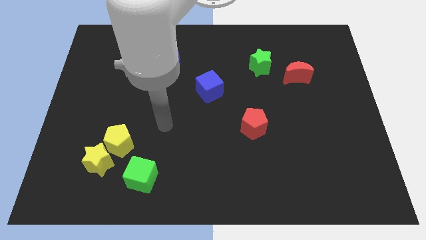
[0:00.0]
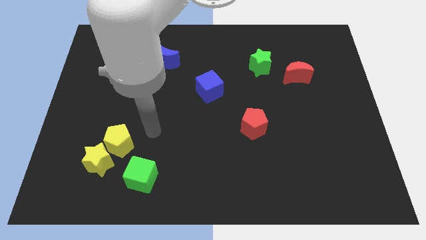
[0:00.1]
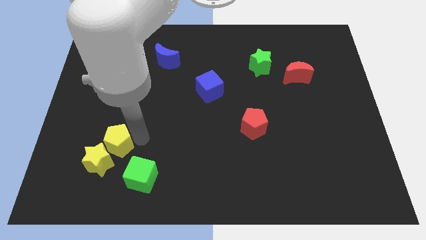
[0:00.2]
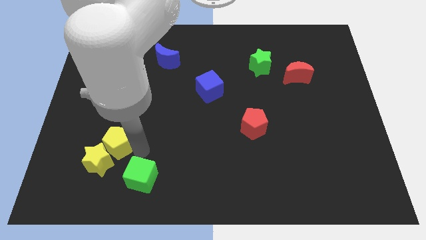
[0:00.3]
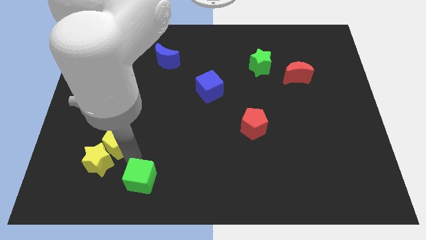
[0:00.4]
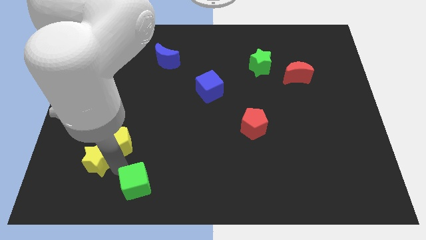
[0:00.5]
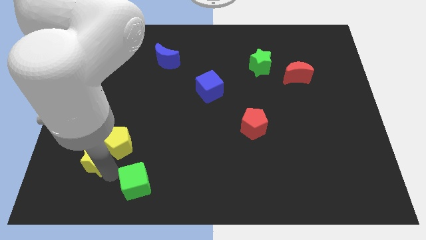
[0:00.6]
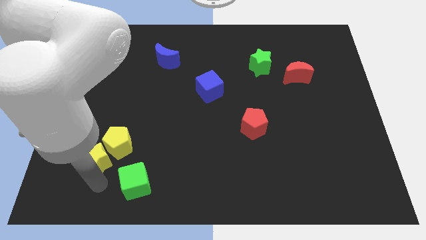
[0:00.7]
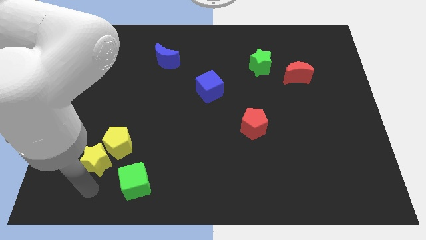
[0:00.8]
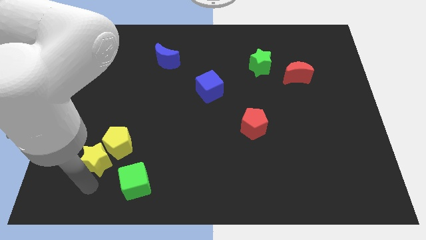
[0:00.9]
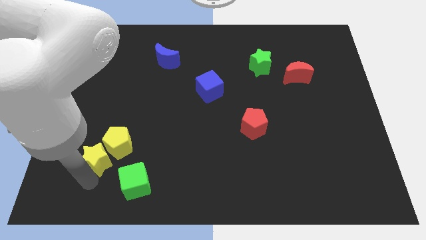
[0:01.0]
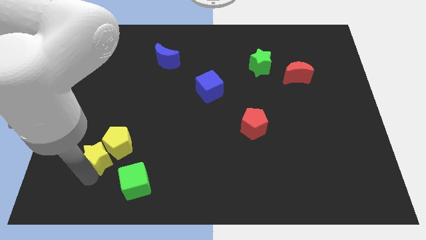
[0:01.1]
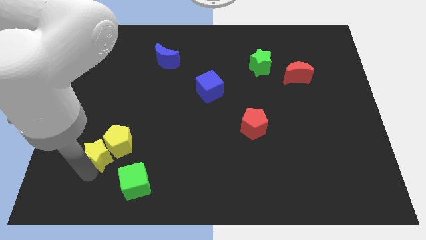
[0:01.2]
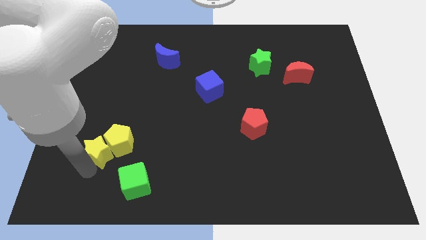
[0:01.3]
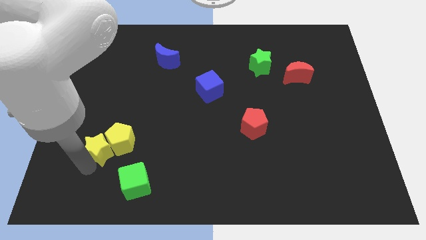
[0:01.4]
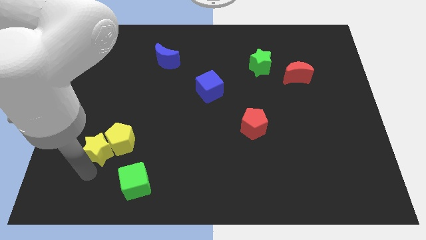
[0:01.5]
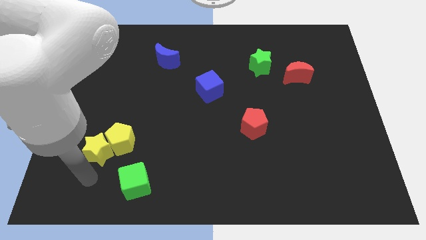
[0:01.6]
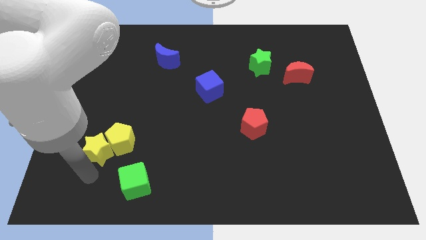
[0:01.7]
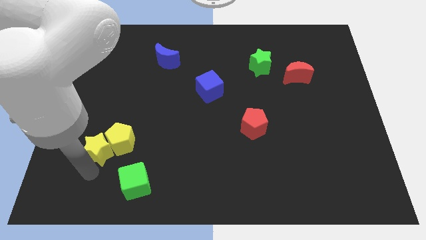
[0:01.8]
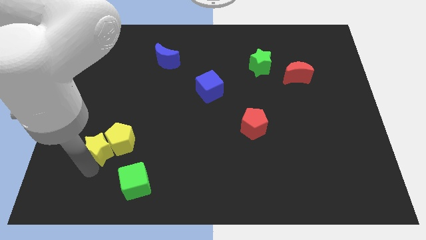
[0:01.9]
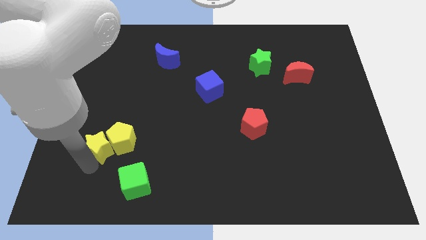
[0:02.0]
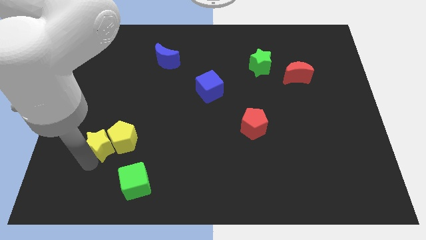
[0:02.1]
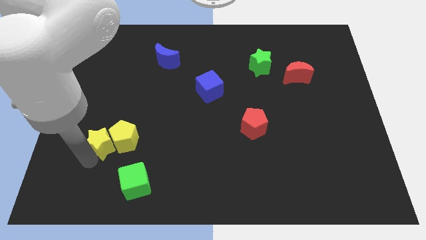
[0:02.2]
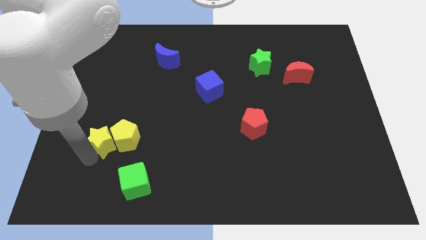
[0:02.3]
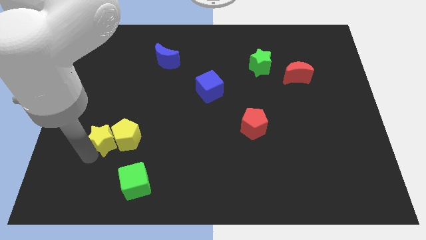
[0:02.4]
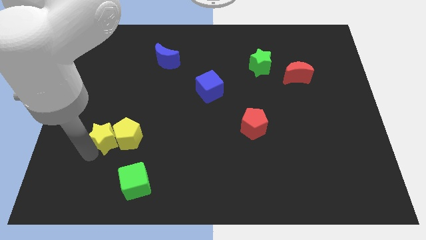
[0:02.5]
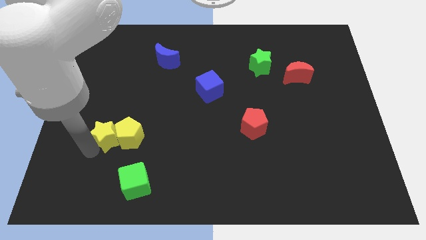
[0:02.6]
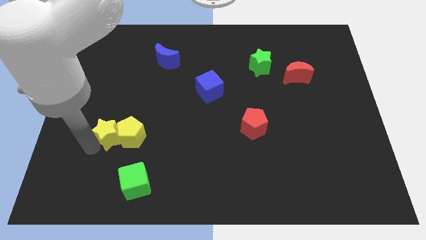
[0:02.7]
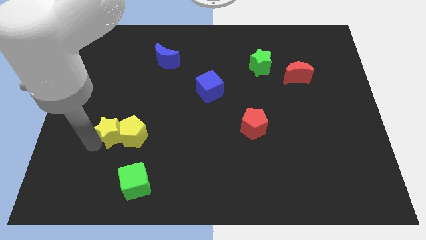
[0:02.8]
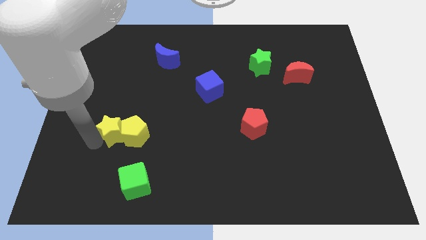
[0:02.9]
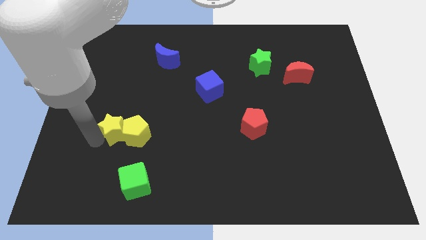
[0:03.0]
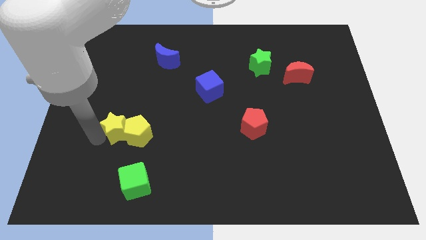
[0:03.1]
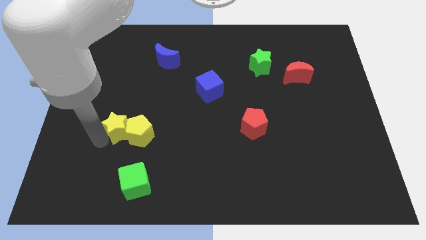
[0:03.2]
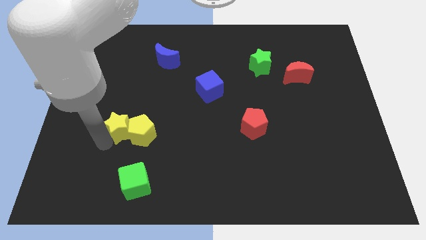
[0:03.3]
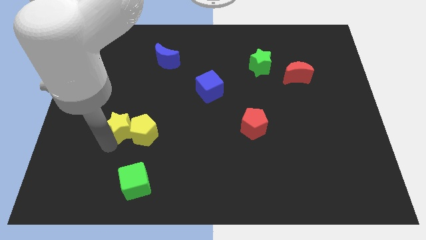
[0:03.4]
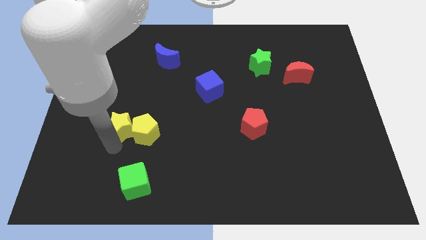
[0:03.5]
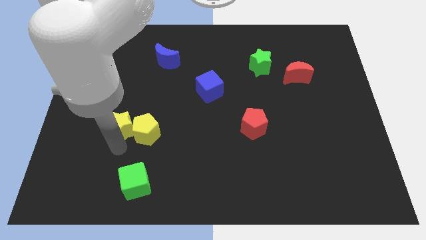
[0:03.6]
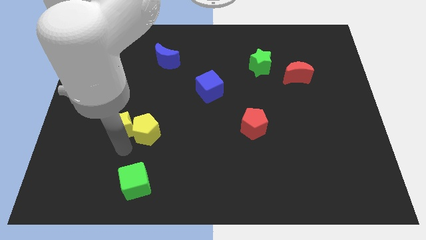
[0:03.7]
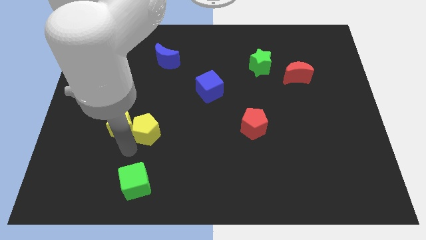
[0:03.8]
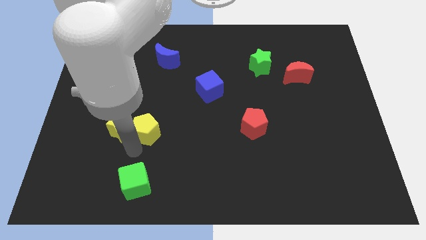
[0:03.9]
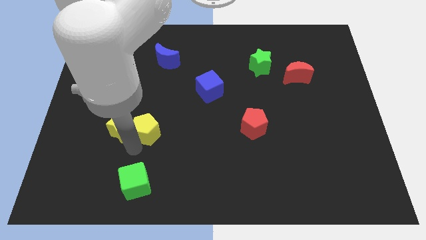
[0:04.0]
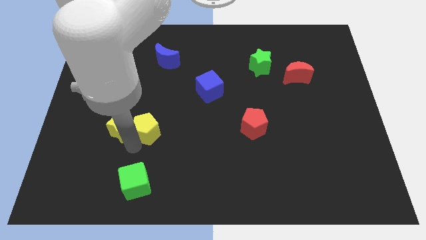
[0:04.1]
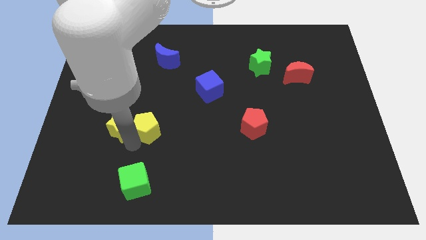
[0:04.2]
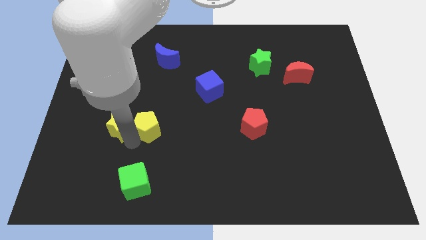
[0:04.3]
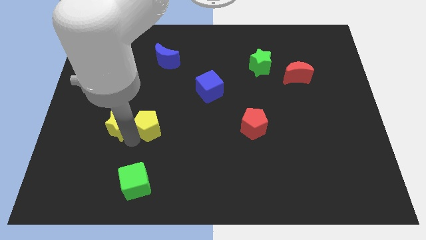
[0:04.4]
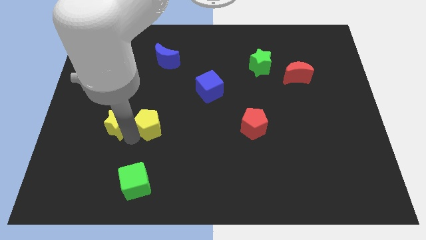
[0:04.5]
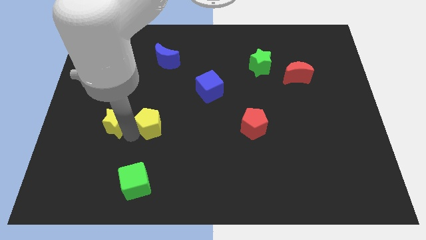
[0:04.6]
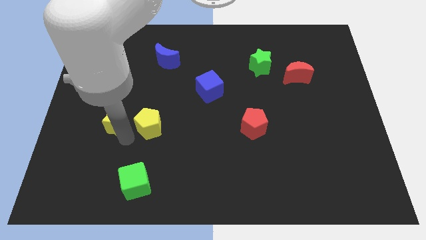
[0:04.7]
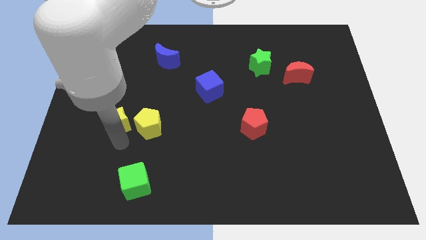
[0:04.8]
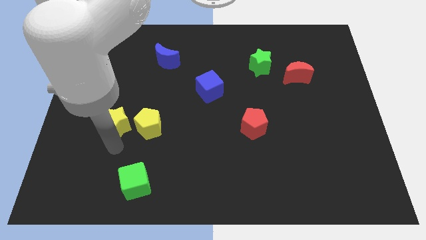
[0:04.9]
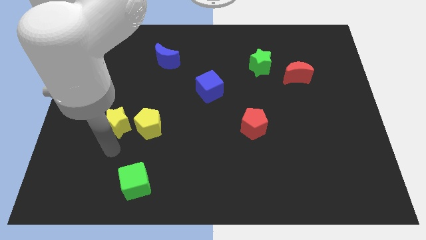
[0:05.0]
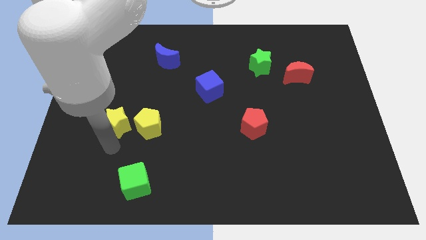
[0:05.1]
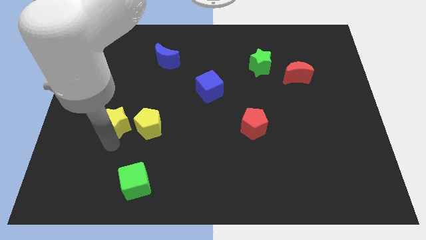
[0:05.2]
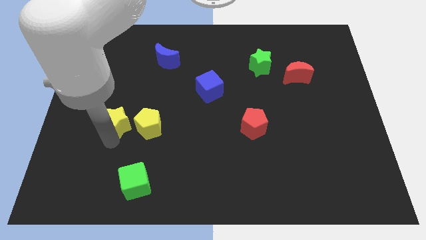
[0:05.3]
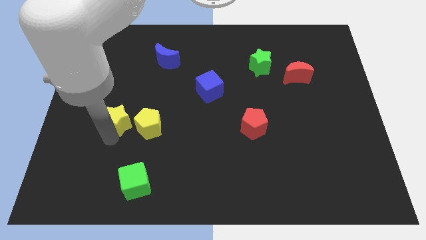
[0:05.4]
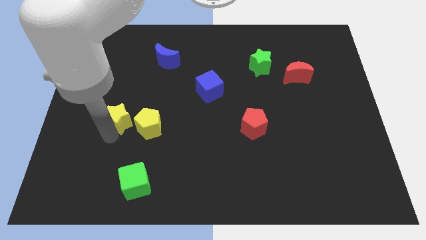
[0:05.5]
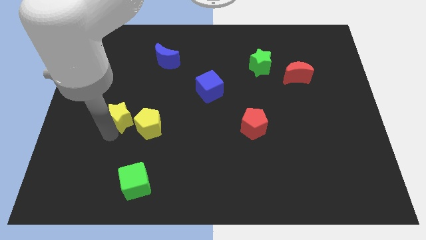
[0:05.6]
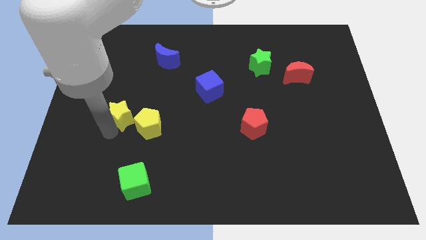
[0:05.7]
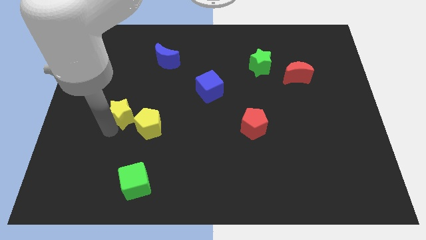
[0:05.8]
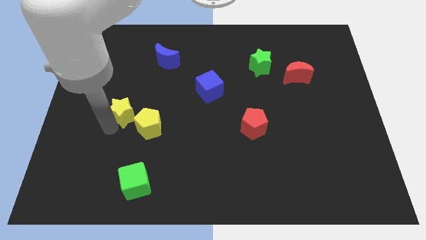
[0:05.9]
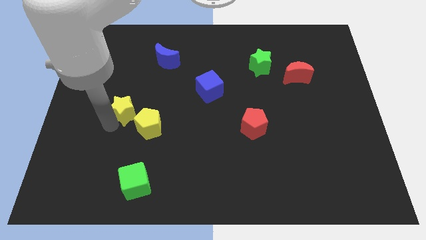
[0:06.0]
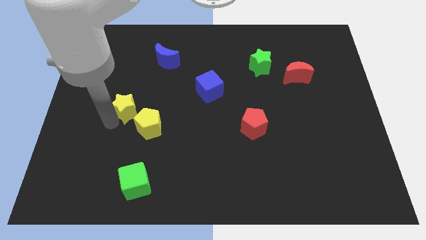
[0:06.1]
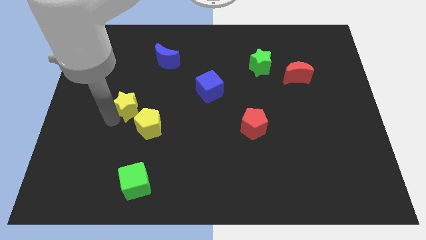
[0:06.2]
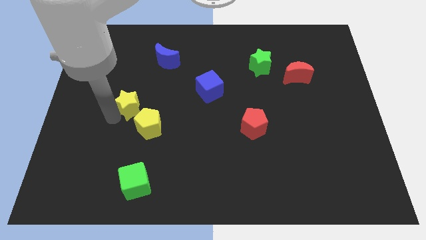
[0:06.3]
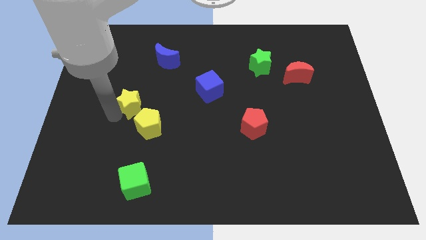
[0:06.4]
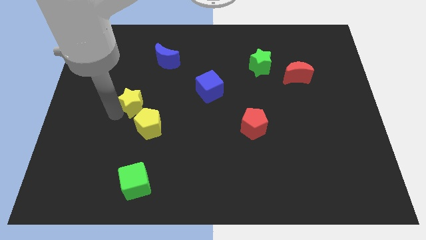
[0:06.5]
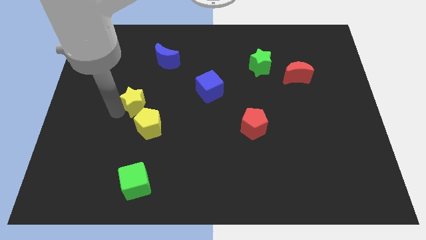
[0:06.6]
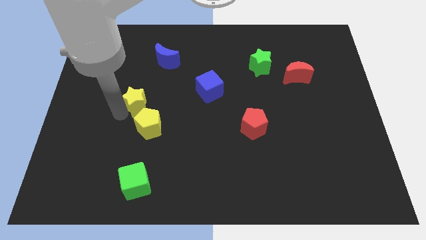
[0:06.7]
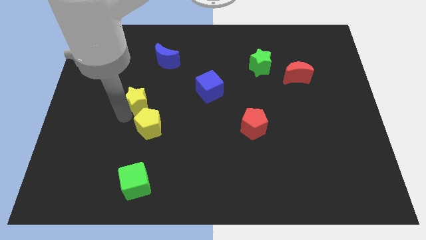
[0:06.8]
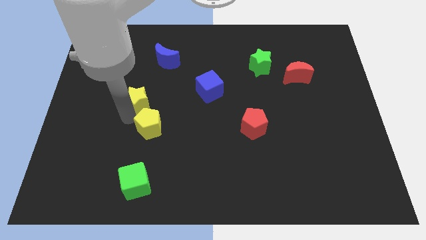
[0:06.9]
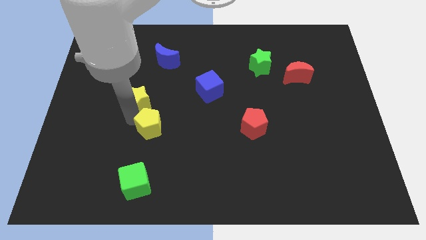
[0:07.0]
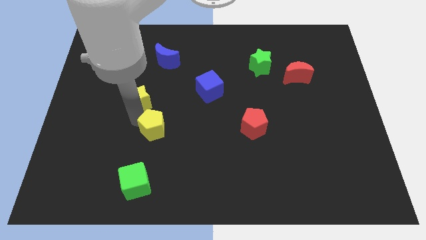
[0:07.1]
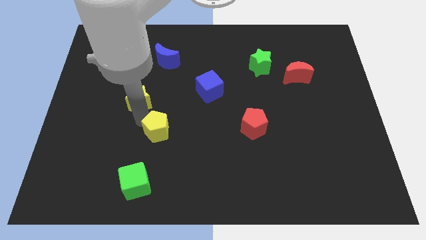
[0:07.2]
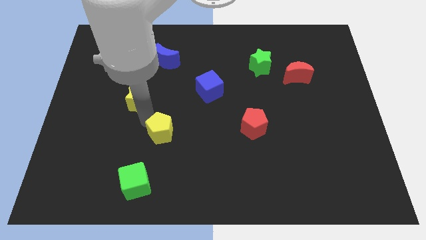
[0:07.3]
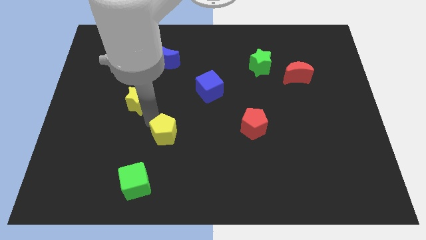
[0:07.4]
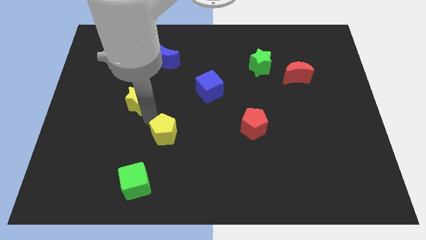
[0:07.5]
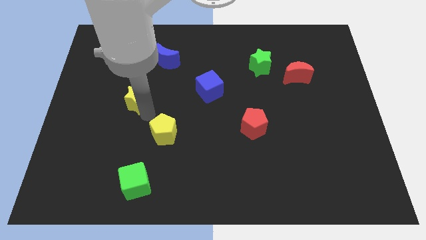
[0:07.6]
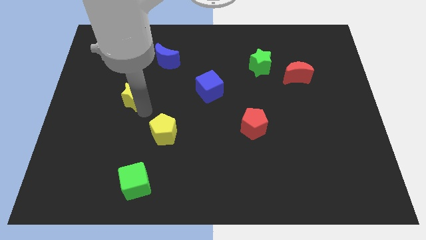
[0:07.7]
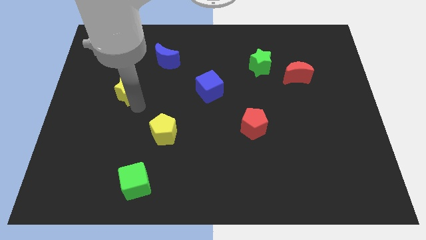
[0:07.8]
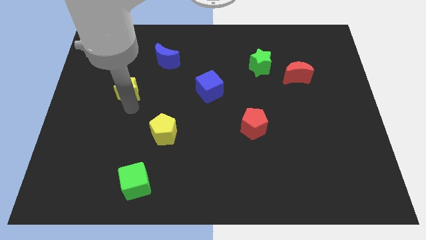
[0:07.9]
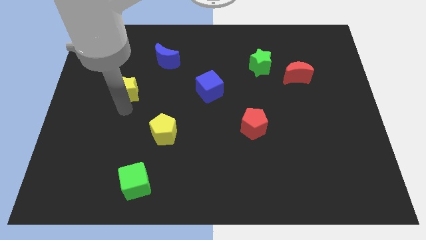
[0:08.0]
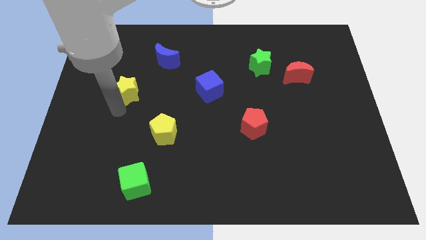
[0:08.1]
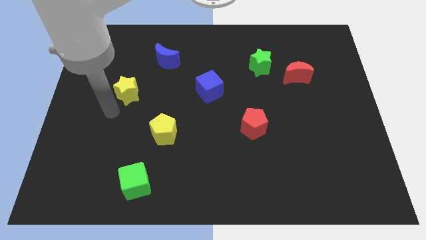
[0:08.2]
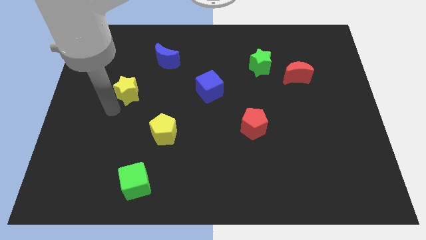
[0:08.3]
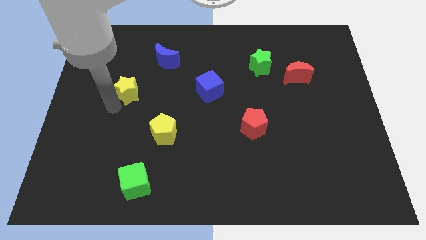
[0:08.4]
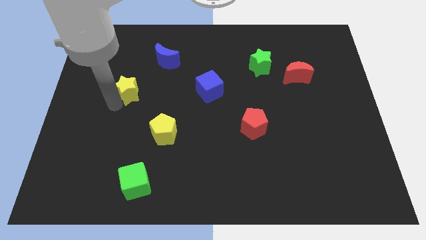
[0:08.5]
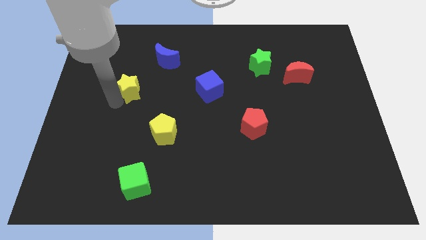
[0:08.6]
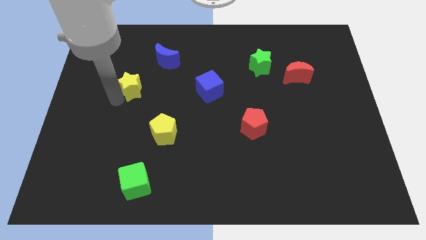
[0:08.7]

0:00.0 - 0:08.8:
move the yellow star to the bottom left side of the blue moon
